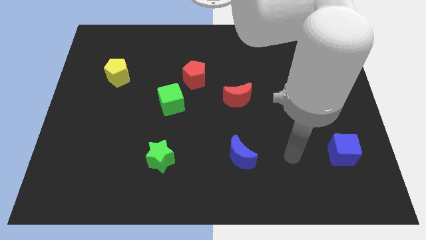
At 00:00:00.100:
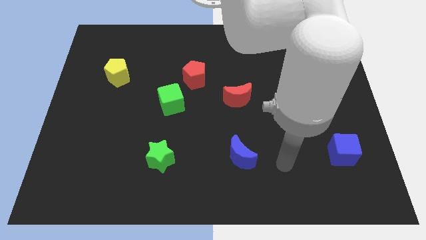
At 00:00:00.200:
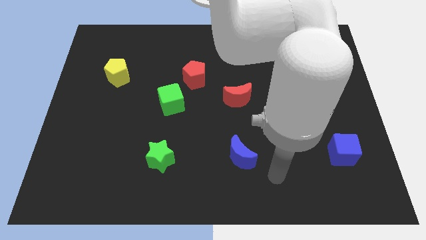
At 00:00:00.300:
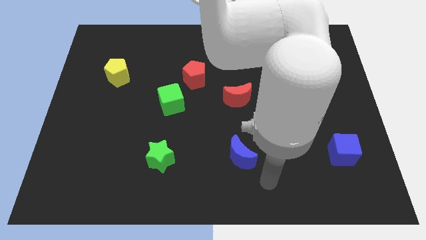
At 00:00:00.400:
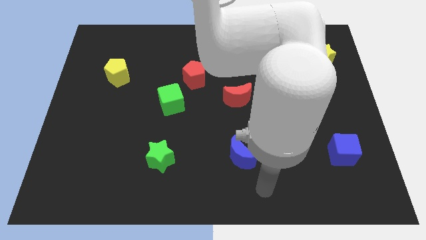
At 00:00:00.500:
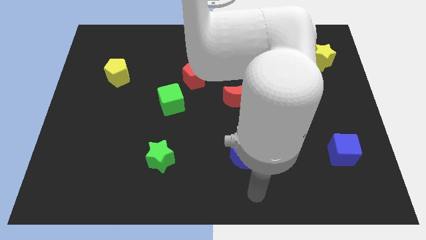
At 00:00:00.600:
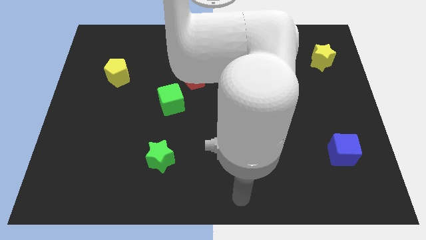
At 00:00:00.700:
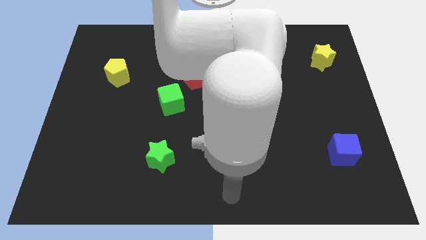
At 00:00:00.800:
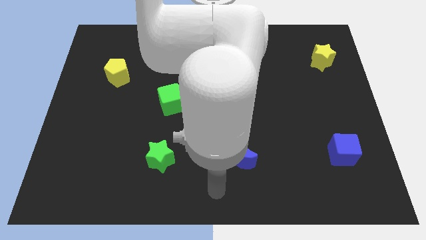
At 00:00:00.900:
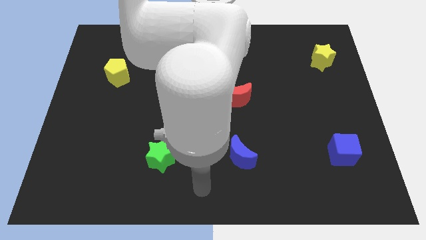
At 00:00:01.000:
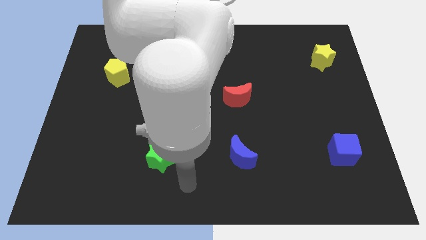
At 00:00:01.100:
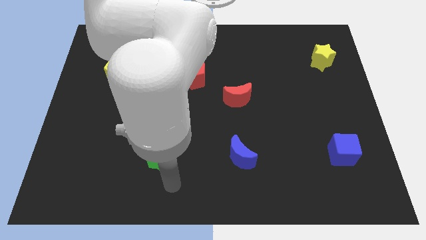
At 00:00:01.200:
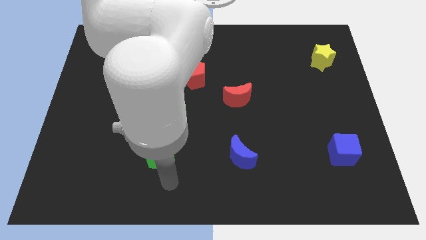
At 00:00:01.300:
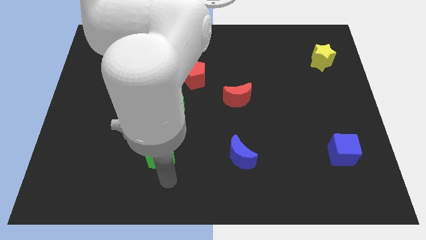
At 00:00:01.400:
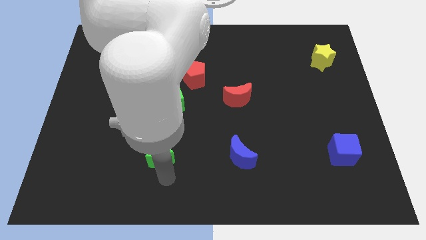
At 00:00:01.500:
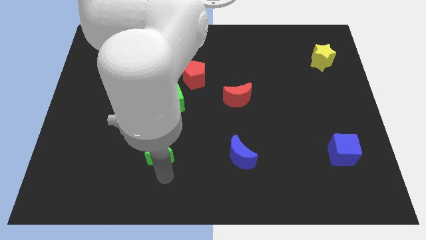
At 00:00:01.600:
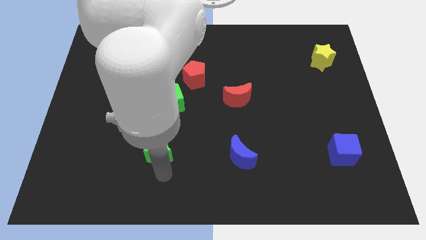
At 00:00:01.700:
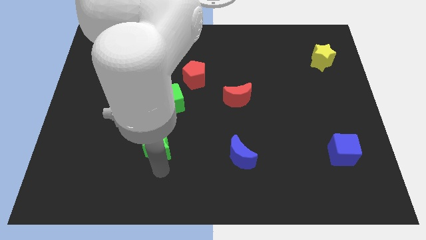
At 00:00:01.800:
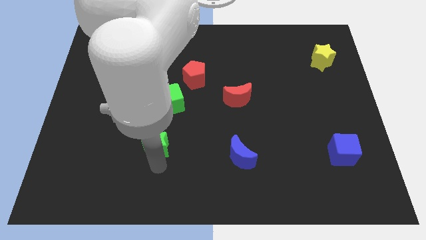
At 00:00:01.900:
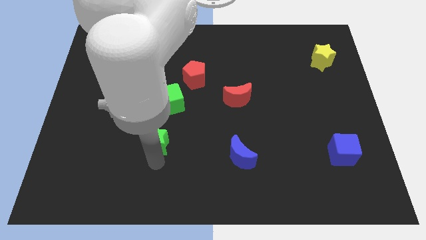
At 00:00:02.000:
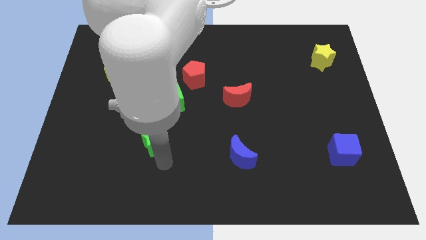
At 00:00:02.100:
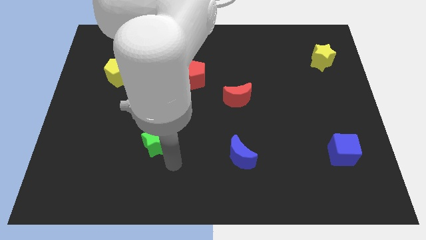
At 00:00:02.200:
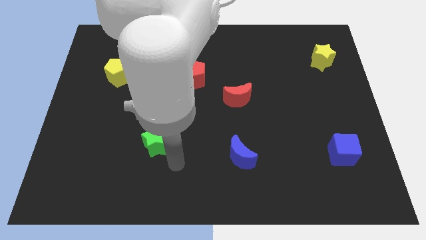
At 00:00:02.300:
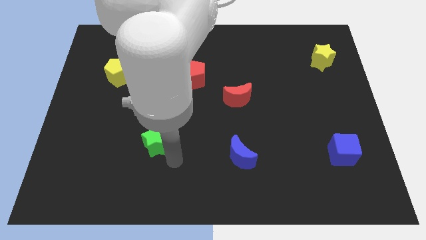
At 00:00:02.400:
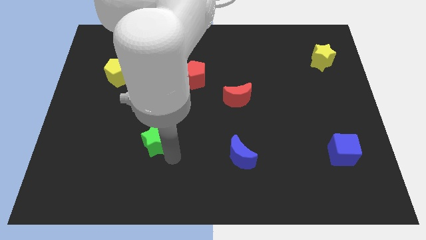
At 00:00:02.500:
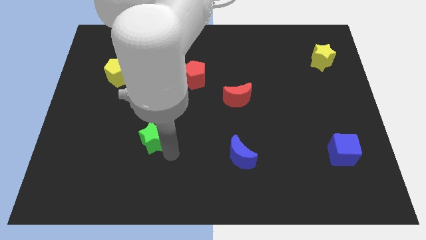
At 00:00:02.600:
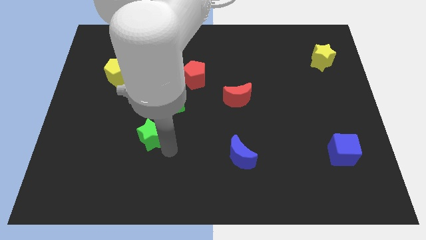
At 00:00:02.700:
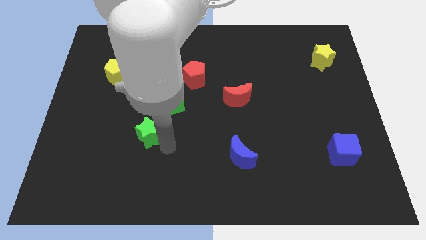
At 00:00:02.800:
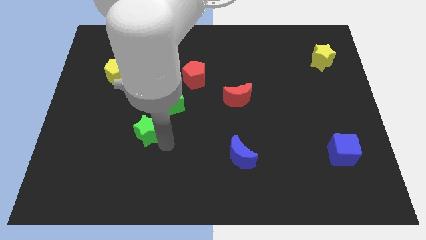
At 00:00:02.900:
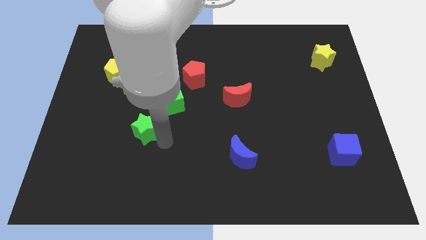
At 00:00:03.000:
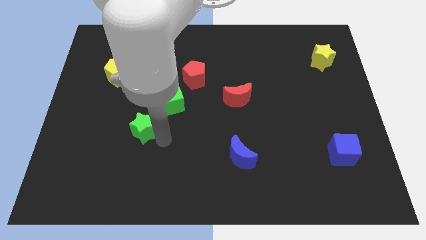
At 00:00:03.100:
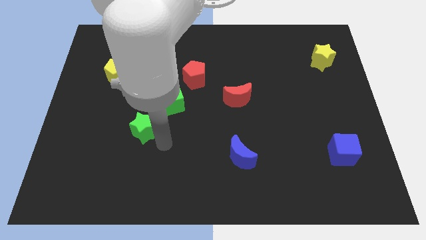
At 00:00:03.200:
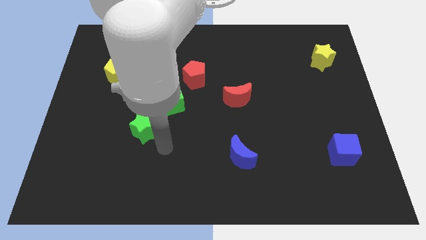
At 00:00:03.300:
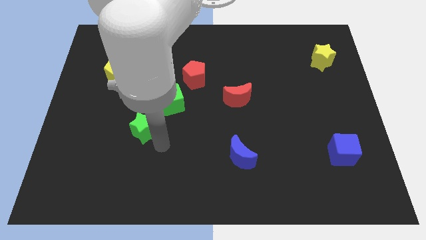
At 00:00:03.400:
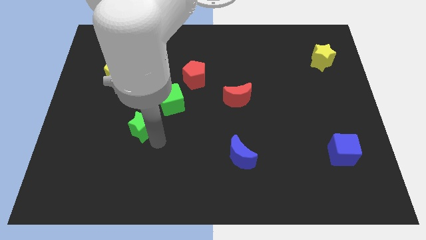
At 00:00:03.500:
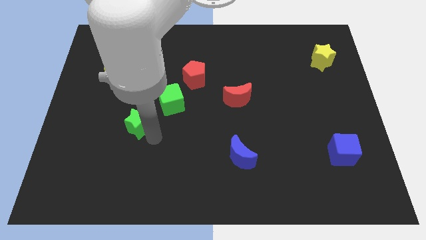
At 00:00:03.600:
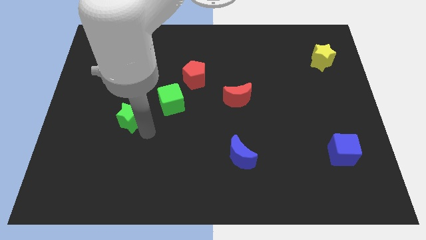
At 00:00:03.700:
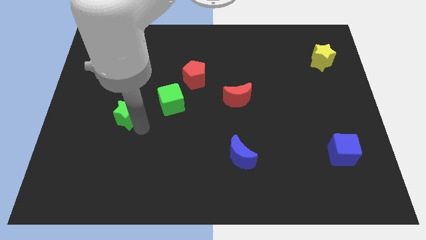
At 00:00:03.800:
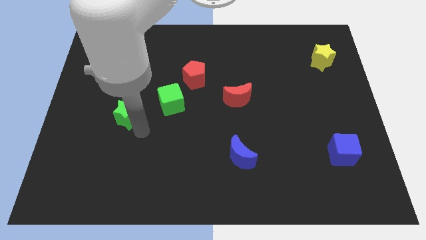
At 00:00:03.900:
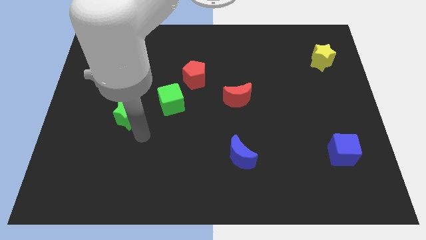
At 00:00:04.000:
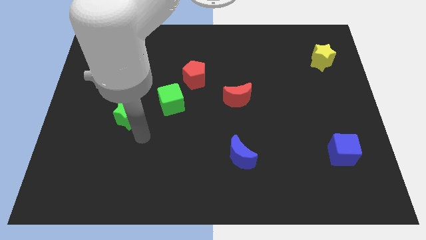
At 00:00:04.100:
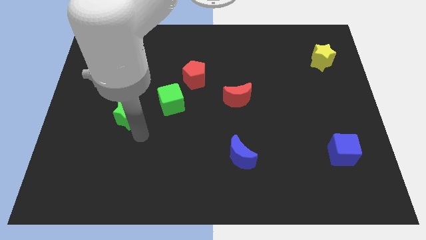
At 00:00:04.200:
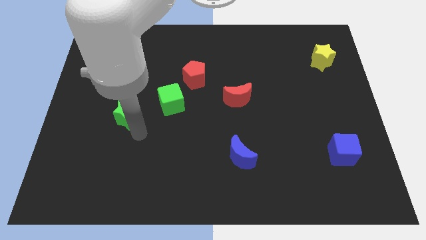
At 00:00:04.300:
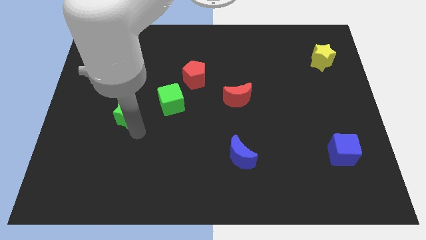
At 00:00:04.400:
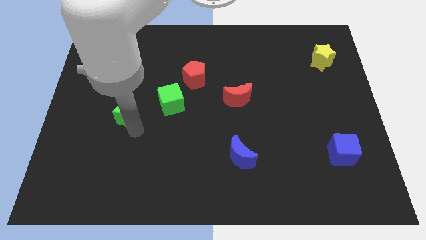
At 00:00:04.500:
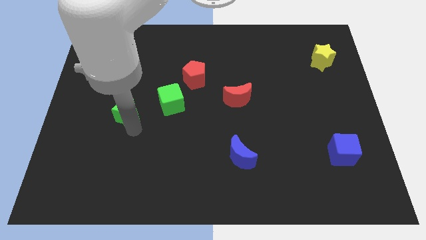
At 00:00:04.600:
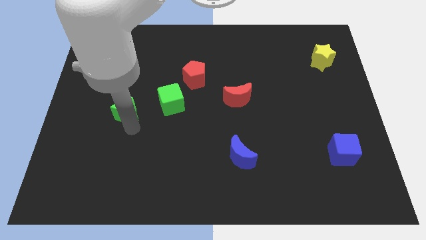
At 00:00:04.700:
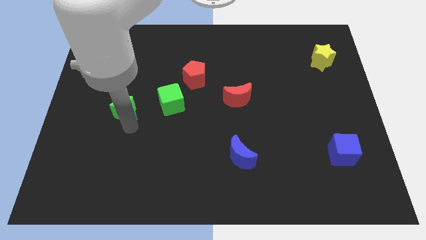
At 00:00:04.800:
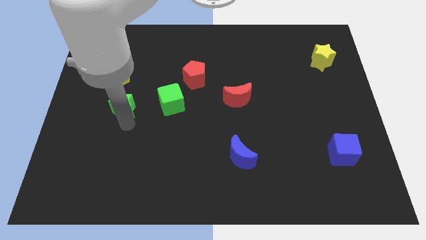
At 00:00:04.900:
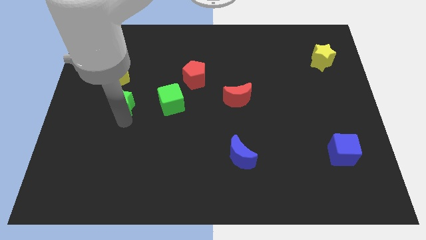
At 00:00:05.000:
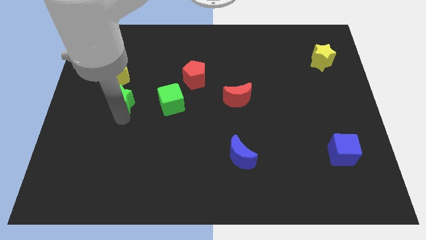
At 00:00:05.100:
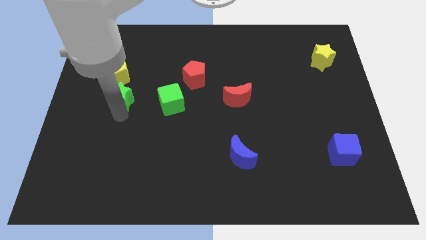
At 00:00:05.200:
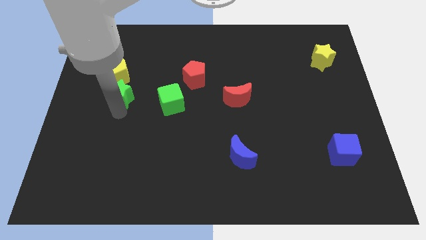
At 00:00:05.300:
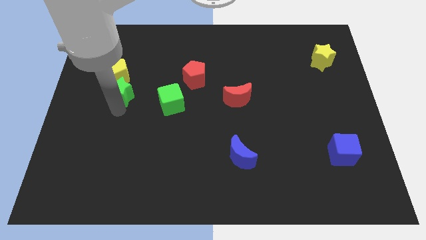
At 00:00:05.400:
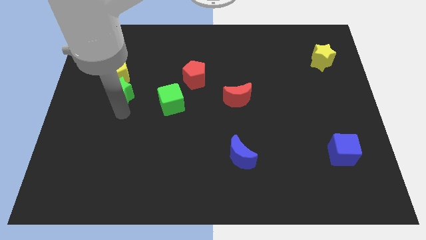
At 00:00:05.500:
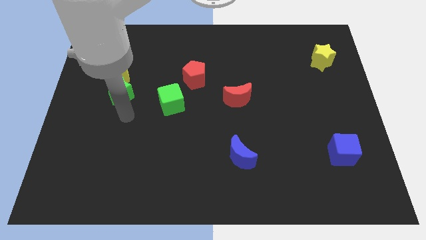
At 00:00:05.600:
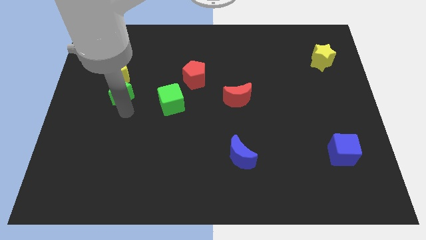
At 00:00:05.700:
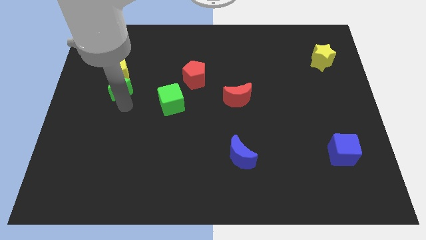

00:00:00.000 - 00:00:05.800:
move the green star to the yellow pentagon

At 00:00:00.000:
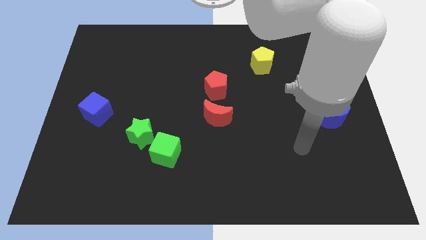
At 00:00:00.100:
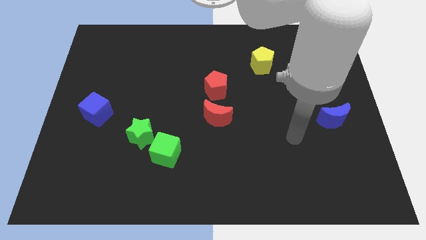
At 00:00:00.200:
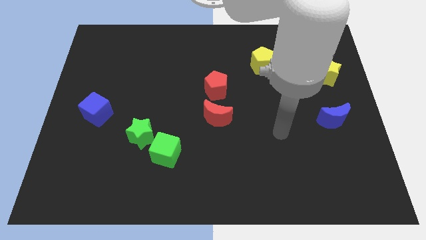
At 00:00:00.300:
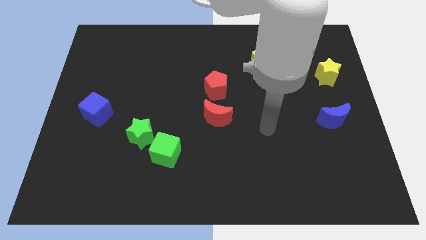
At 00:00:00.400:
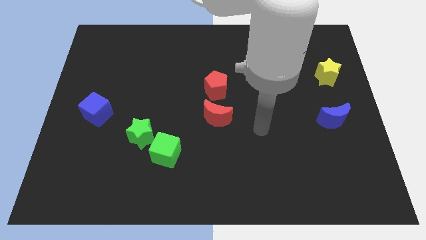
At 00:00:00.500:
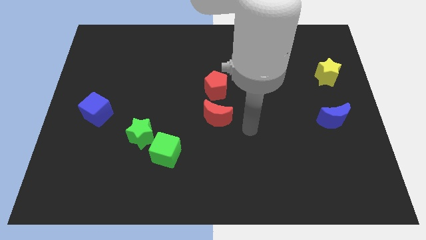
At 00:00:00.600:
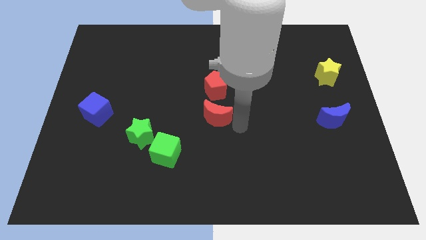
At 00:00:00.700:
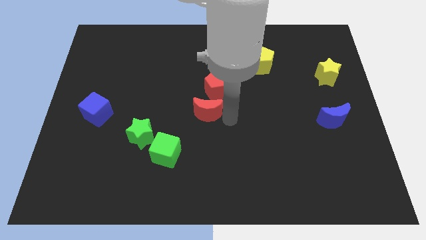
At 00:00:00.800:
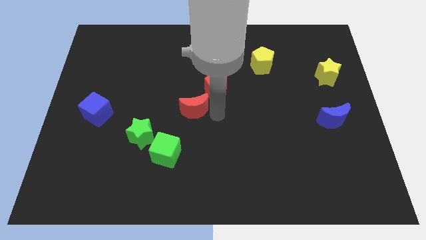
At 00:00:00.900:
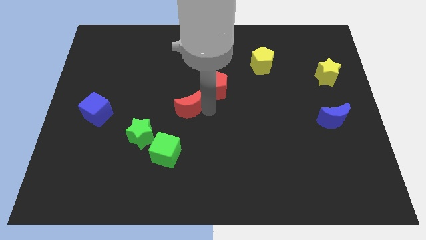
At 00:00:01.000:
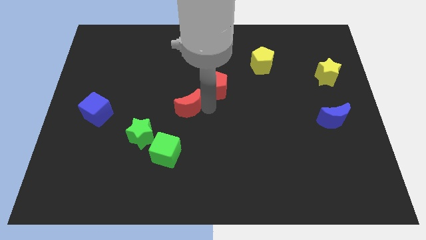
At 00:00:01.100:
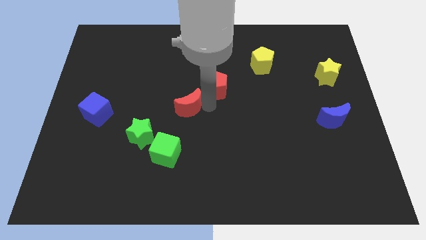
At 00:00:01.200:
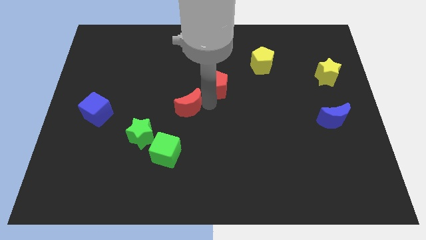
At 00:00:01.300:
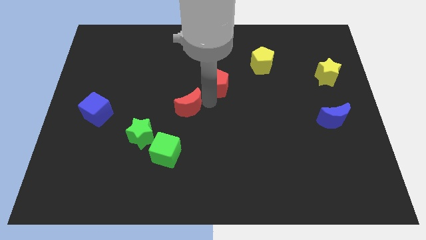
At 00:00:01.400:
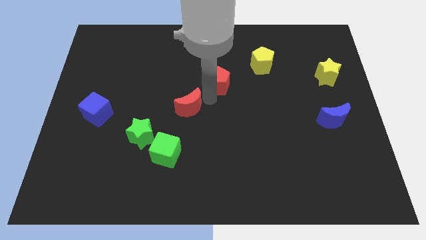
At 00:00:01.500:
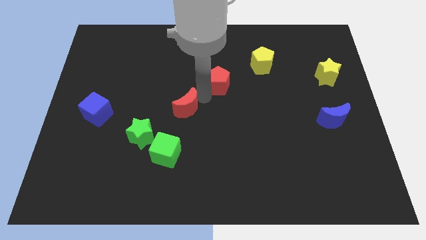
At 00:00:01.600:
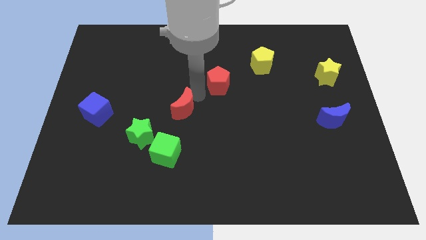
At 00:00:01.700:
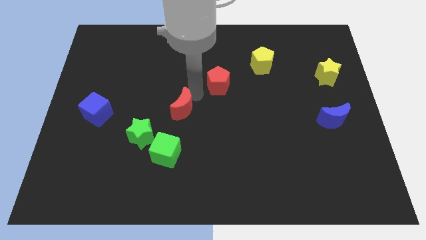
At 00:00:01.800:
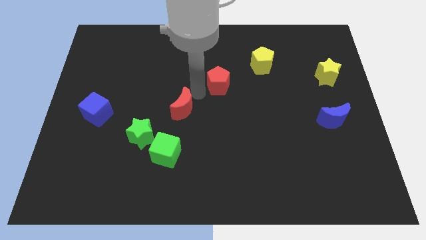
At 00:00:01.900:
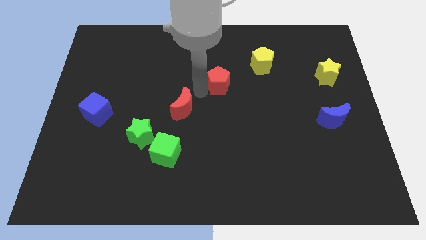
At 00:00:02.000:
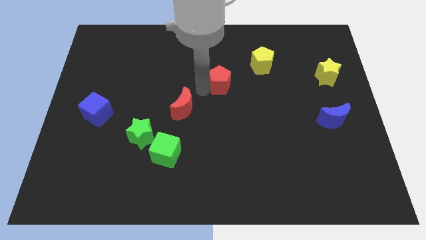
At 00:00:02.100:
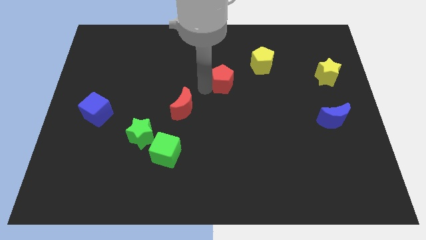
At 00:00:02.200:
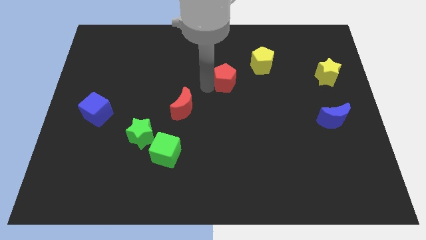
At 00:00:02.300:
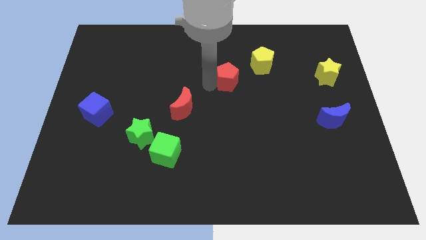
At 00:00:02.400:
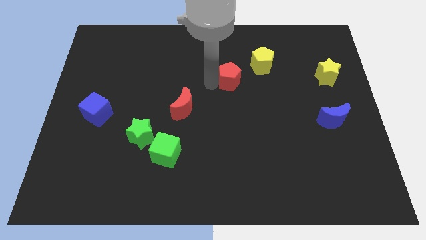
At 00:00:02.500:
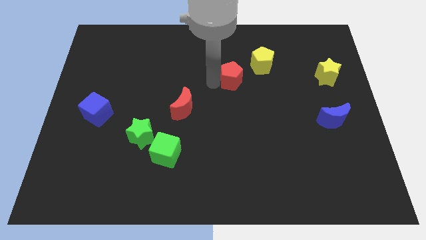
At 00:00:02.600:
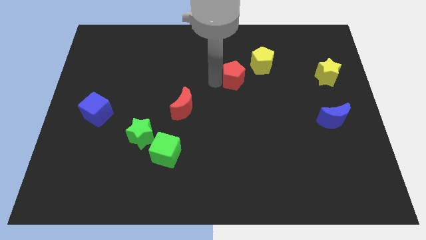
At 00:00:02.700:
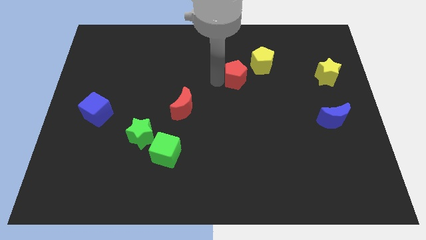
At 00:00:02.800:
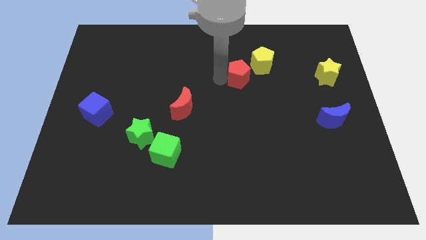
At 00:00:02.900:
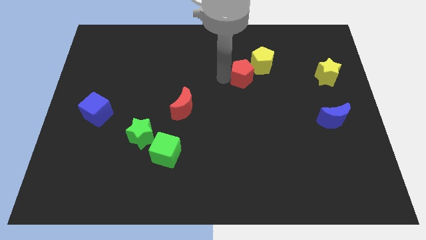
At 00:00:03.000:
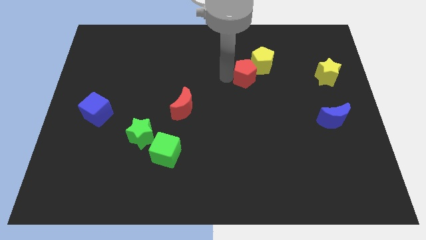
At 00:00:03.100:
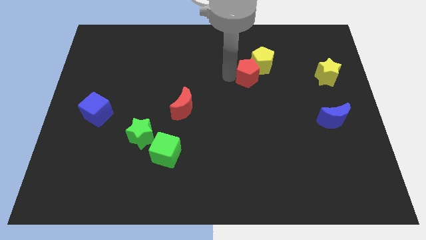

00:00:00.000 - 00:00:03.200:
slide the red pentagon towards the yellow pentagon
